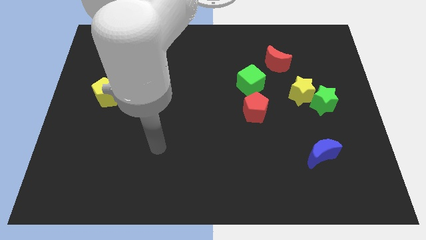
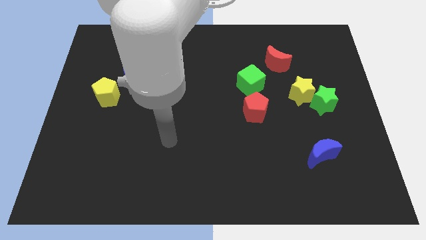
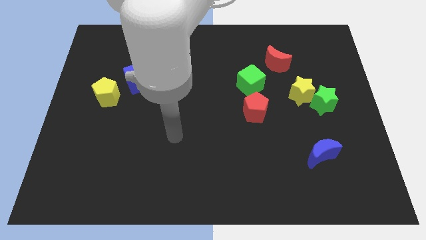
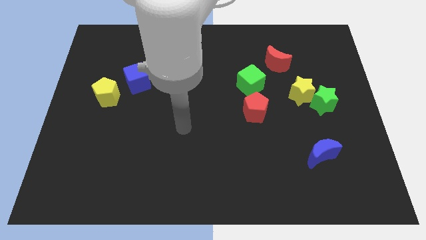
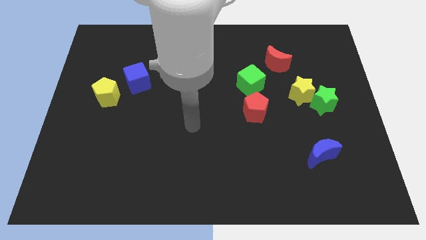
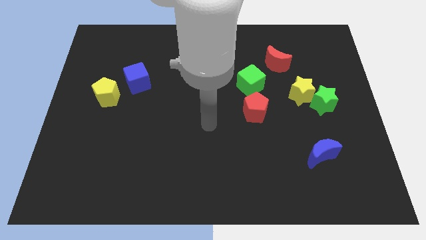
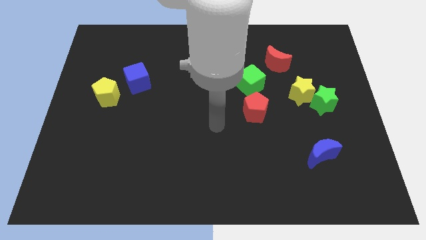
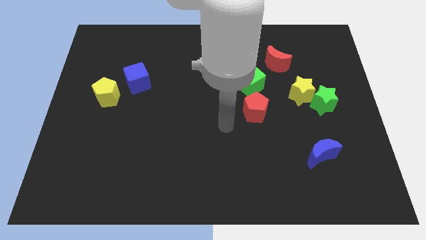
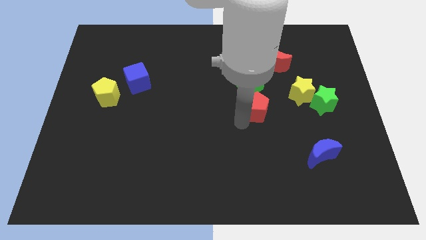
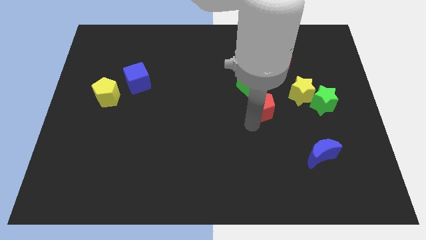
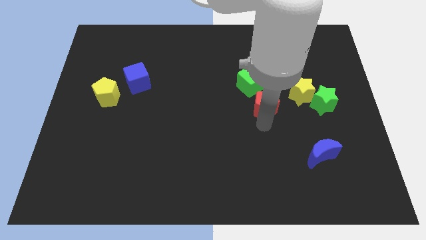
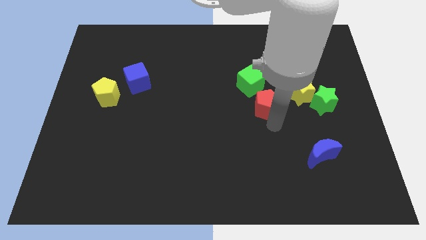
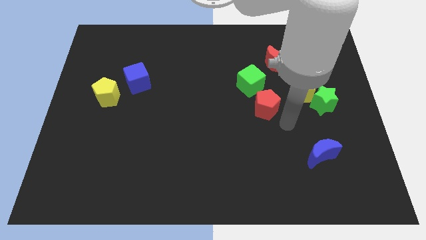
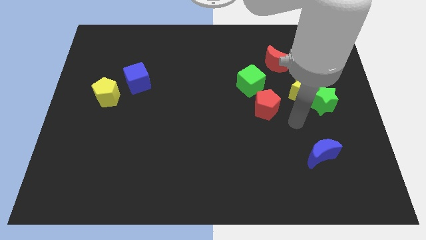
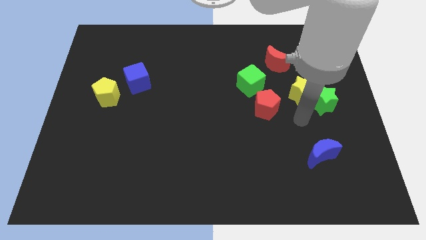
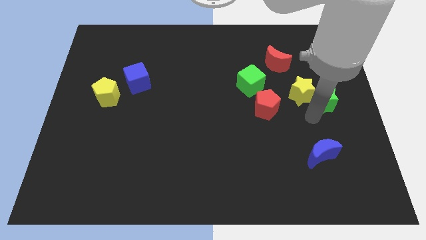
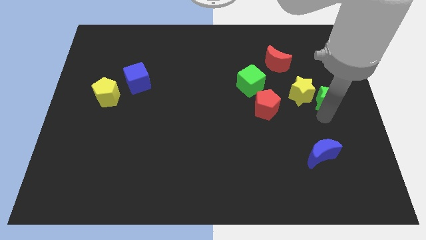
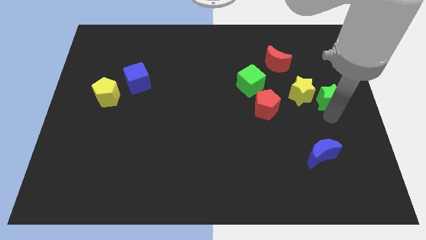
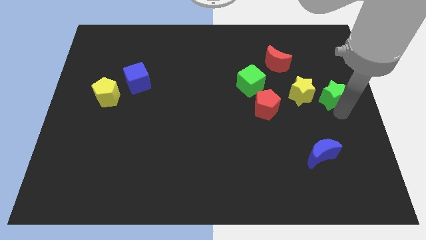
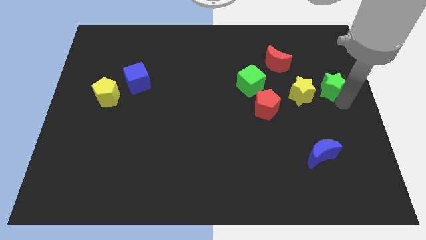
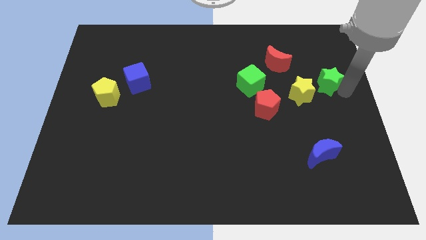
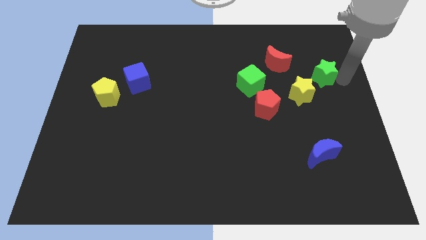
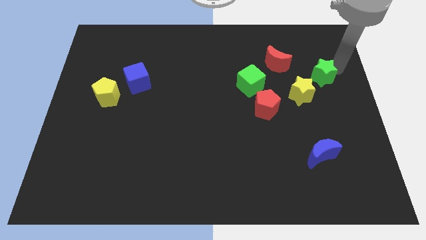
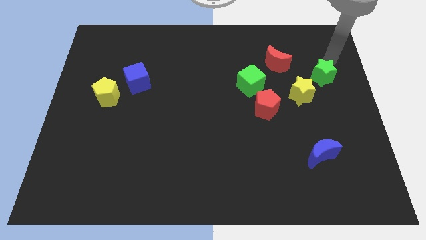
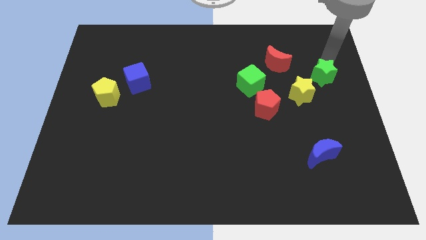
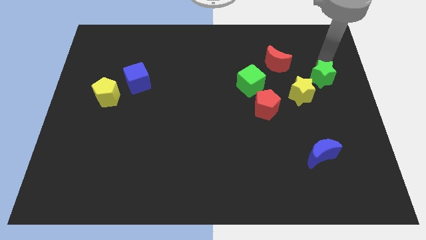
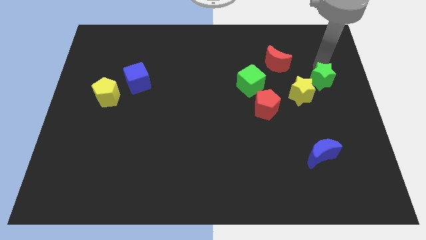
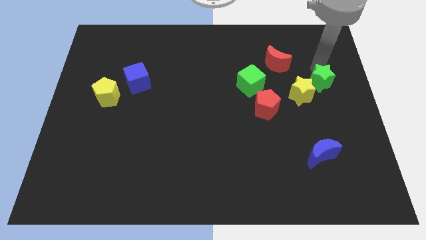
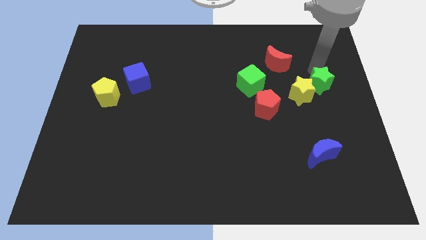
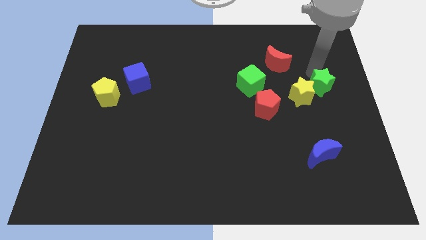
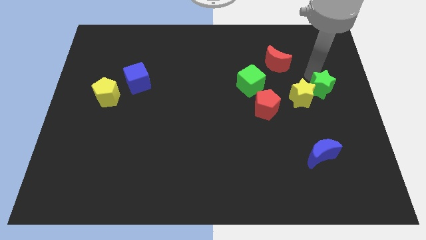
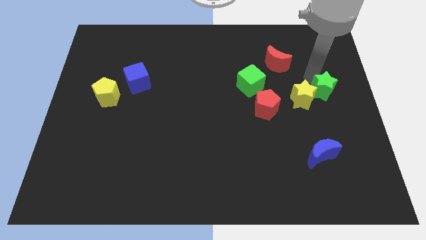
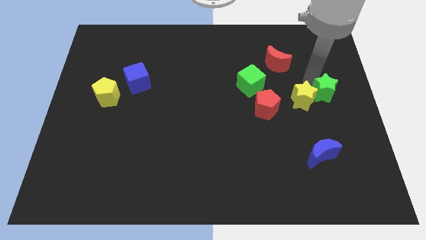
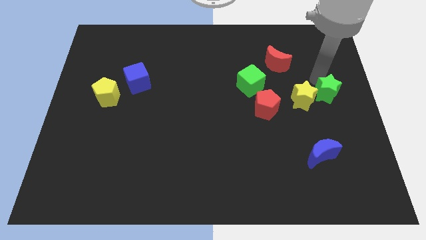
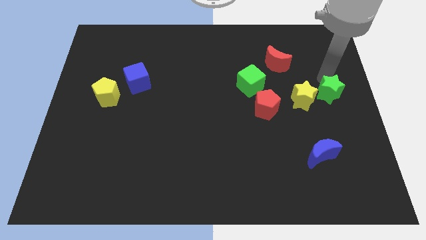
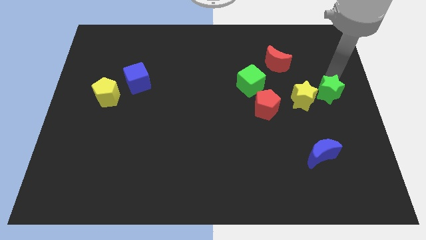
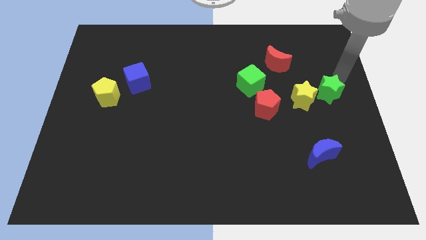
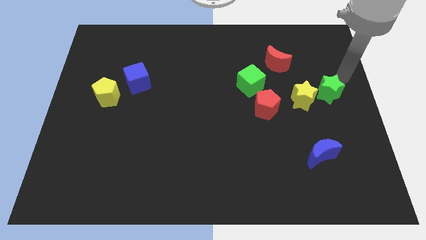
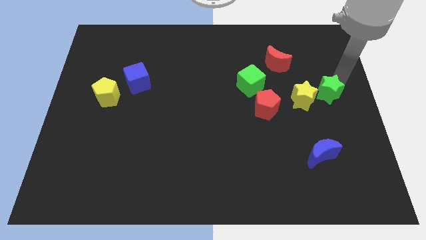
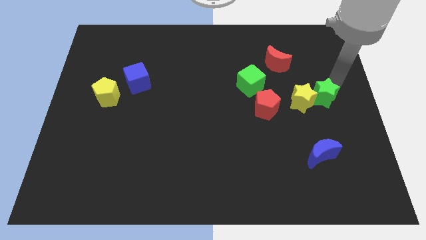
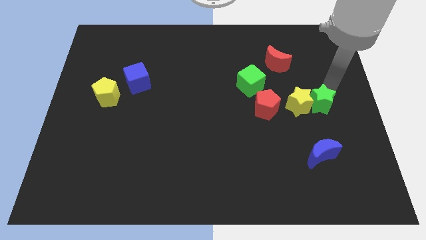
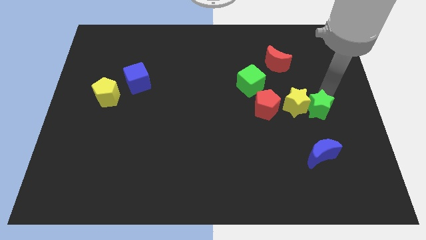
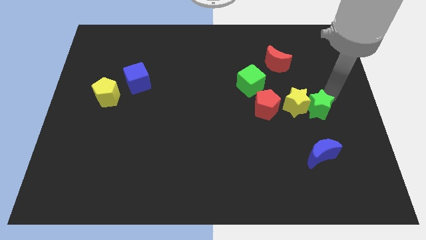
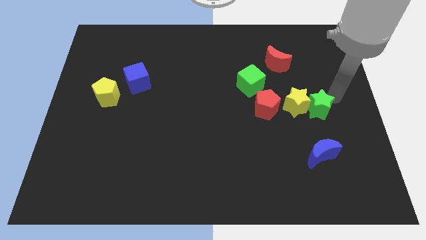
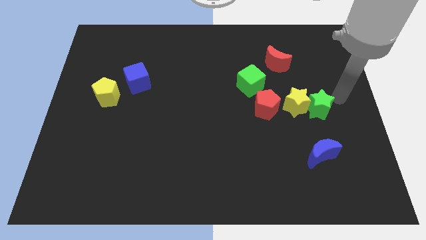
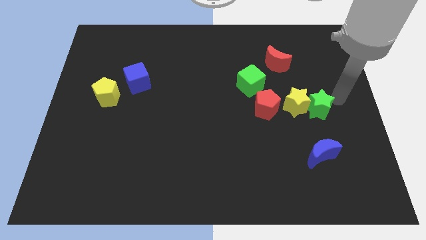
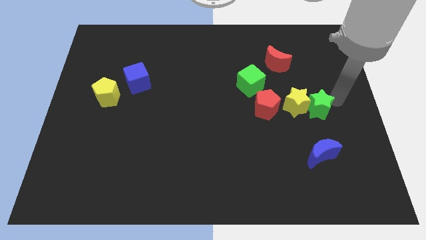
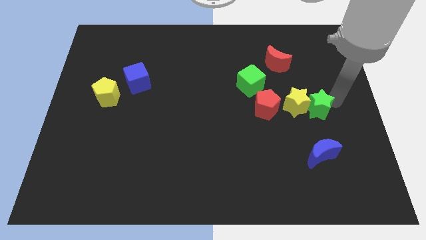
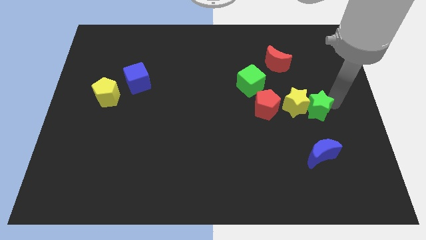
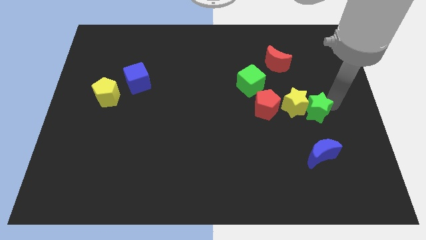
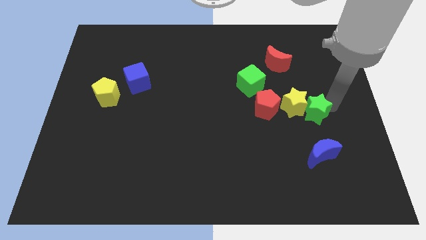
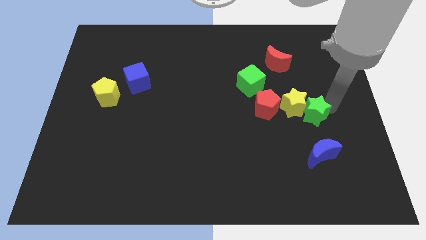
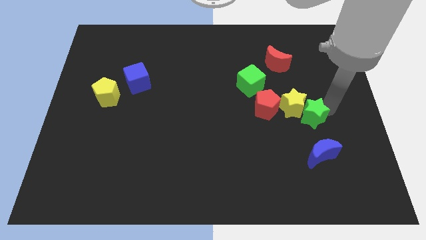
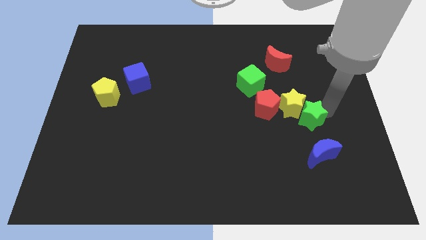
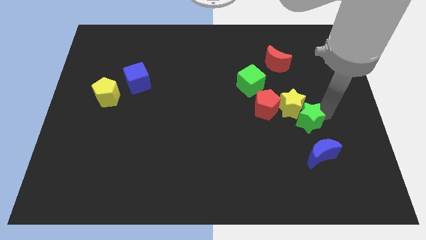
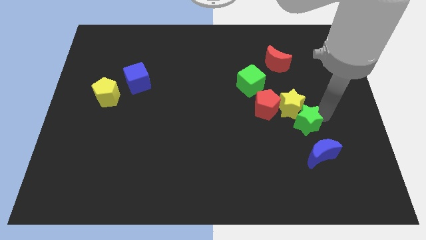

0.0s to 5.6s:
slightly move the green star down and to the left

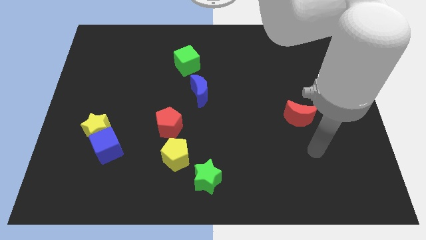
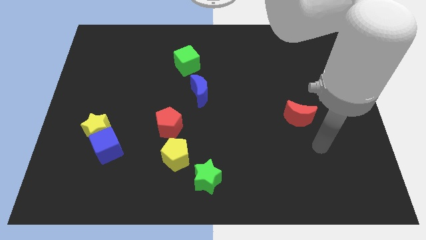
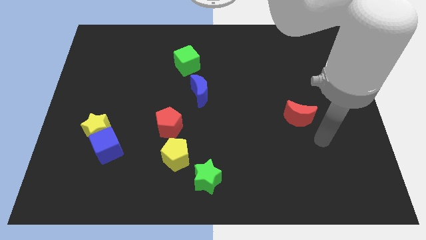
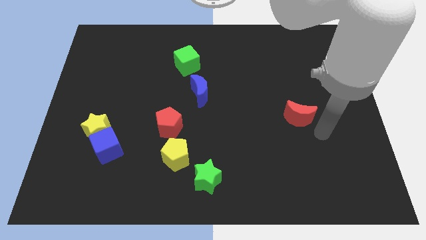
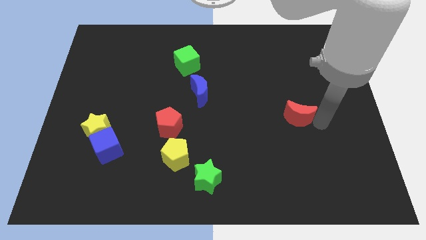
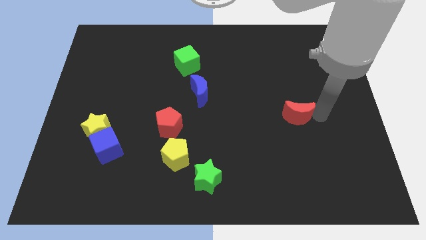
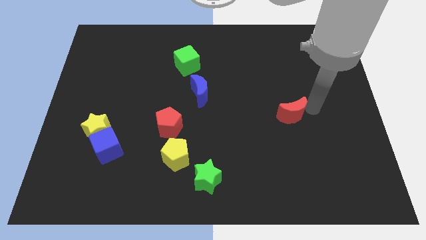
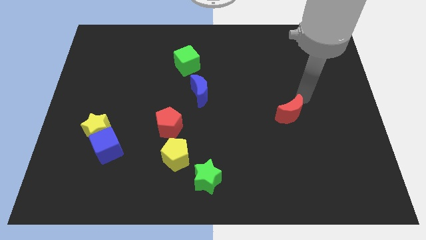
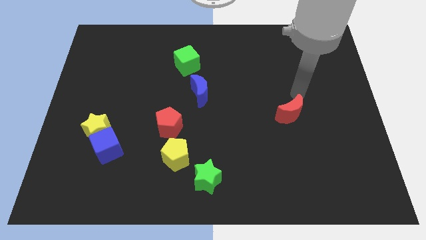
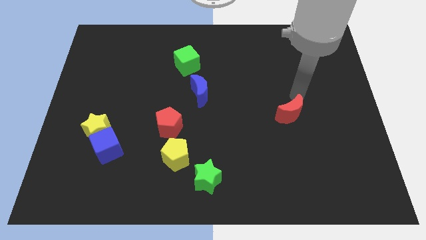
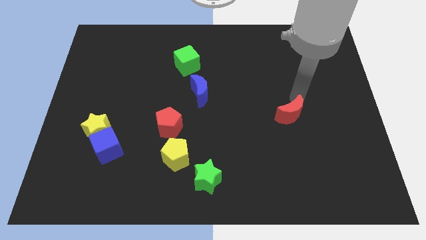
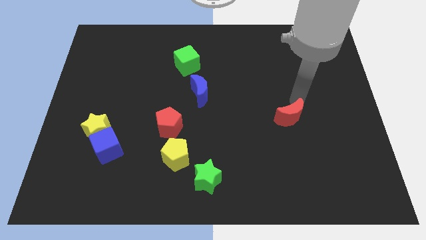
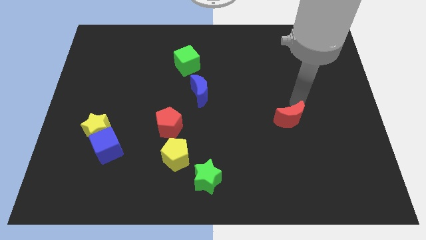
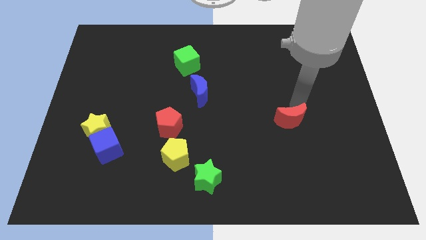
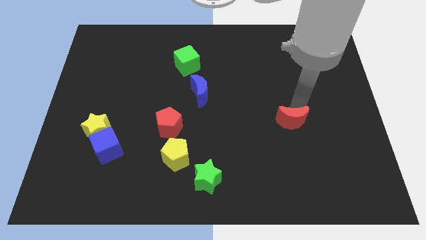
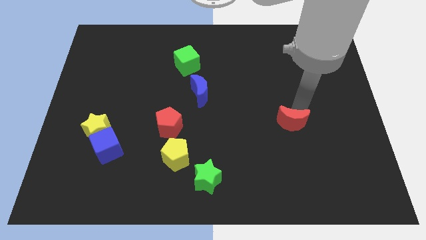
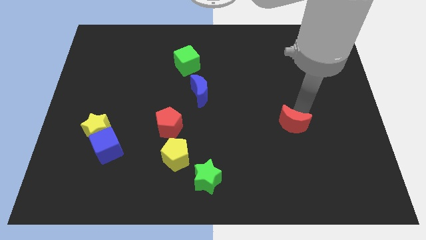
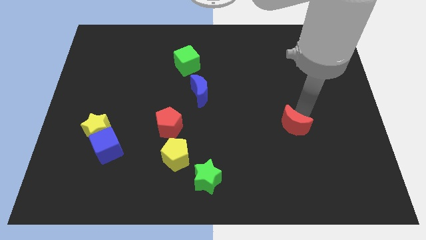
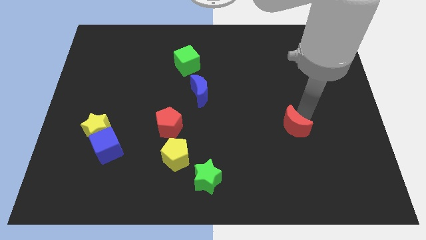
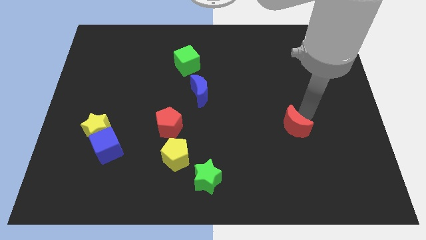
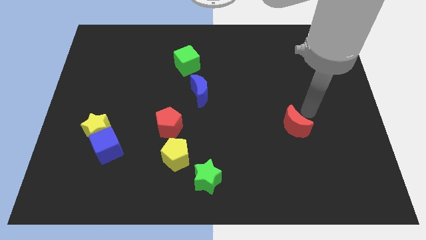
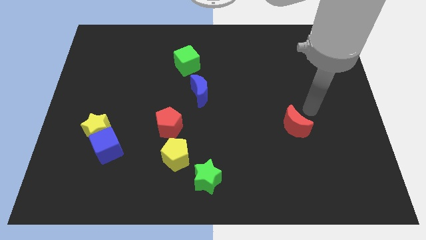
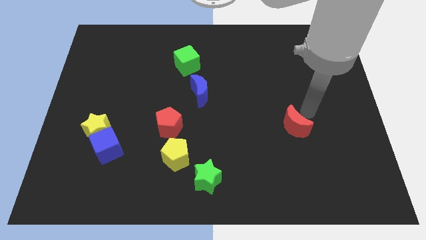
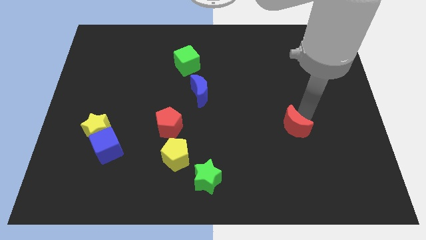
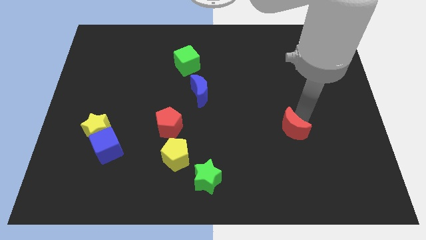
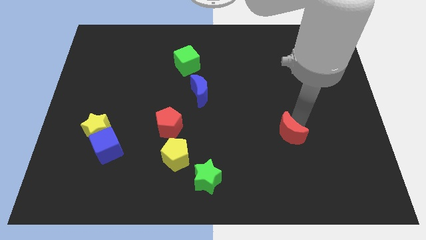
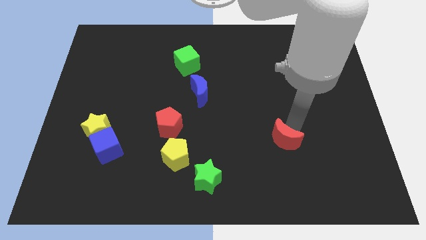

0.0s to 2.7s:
slide the red moon slightly downwards and then to the left
